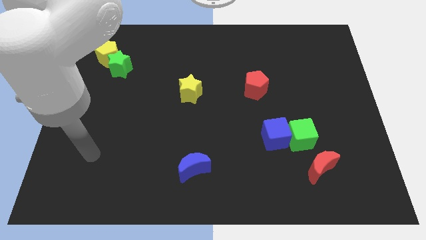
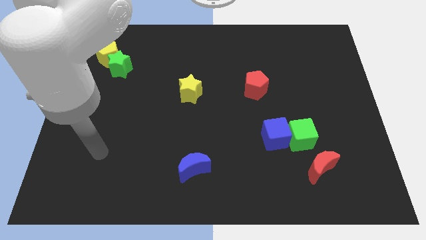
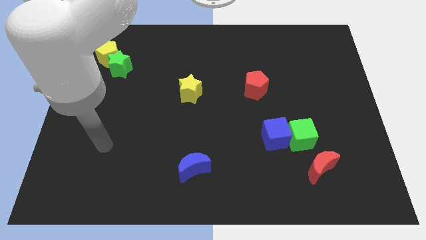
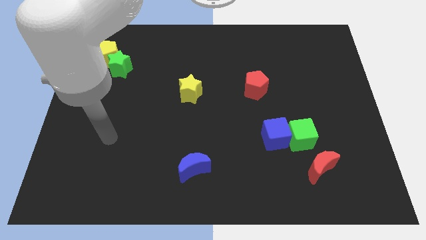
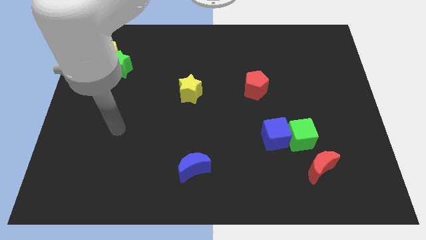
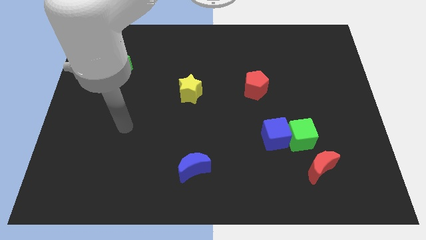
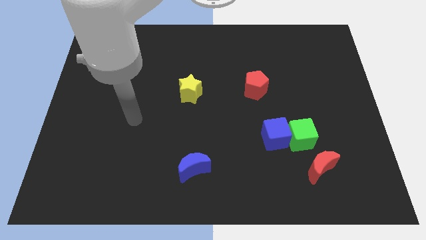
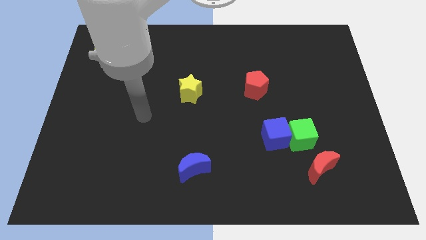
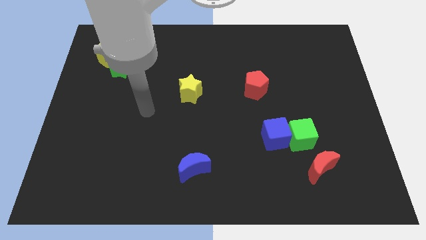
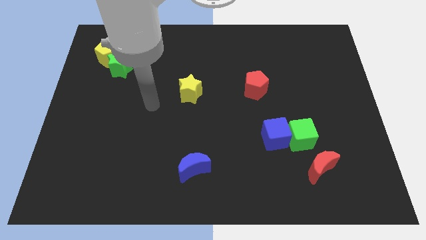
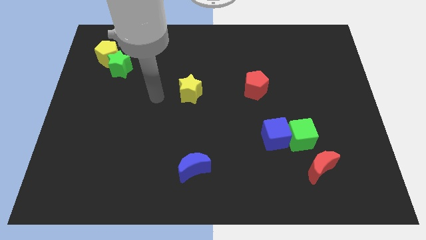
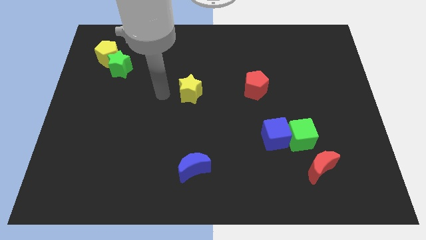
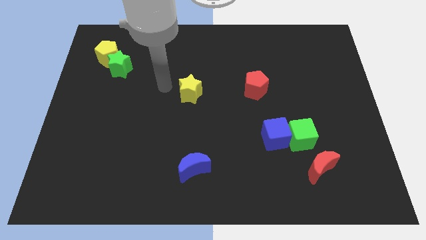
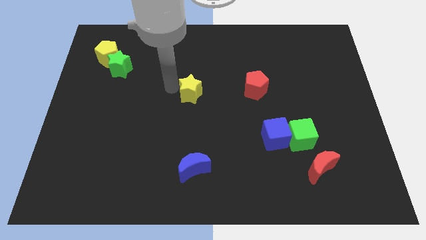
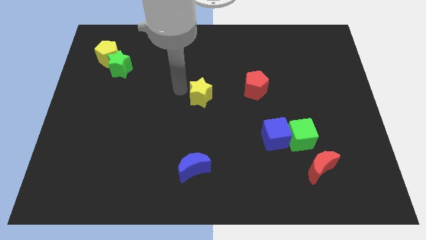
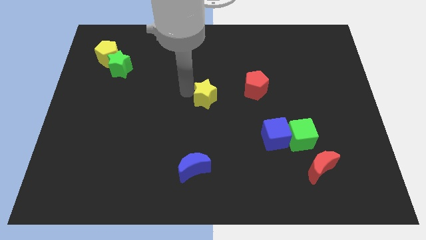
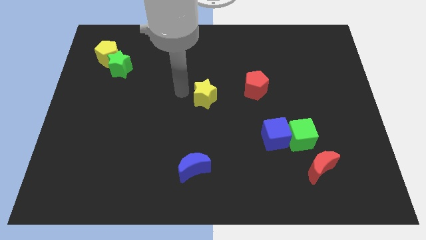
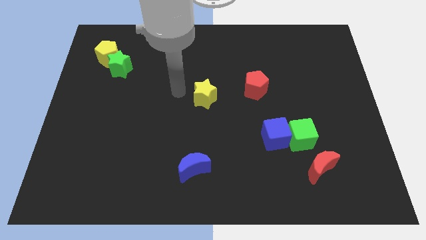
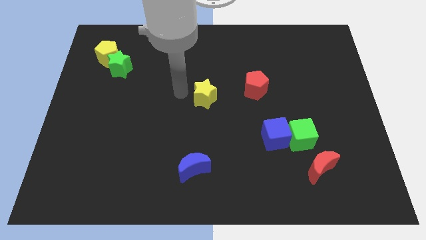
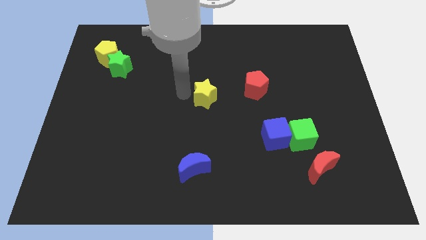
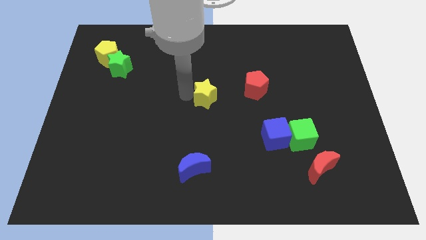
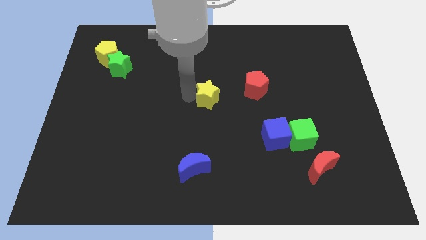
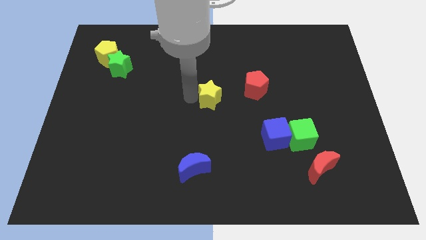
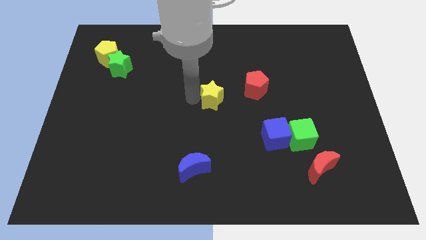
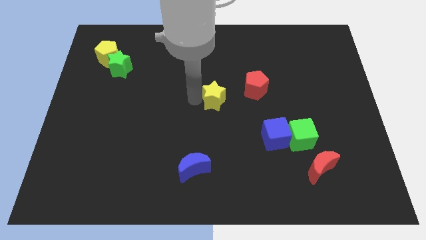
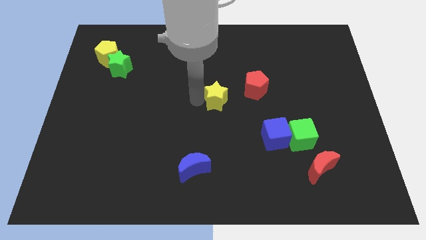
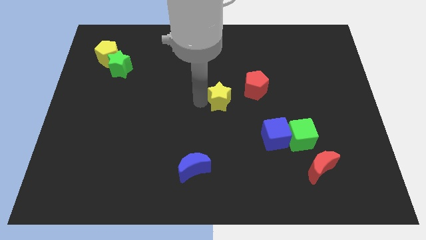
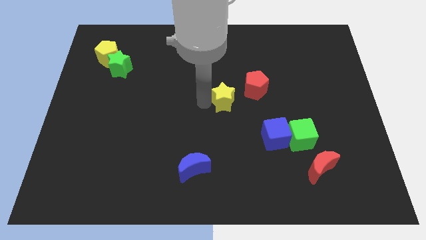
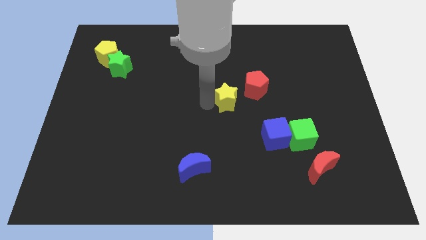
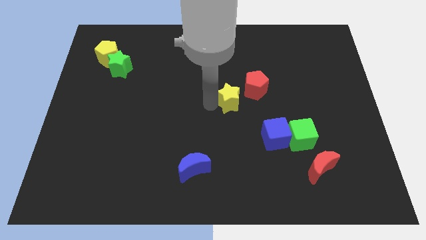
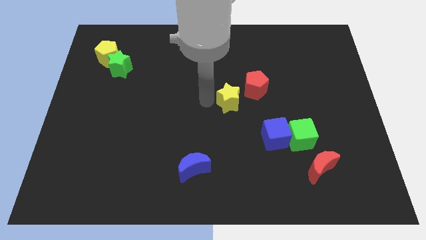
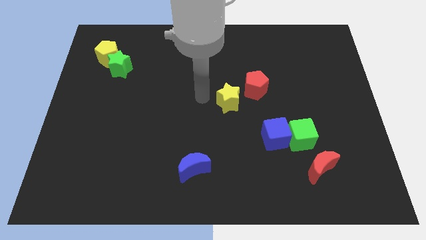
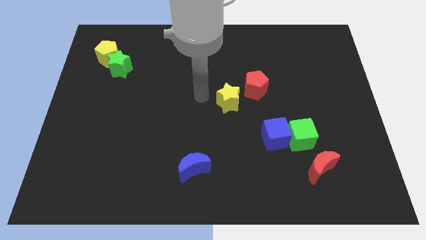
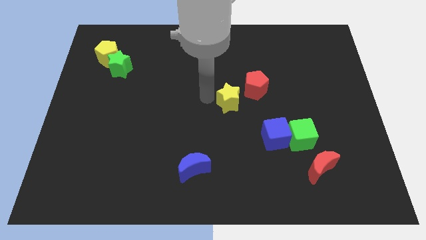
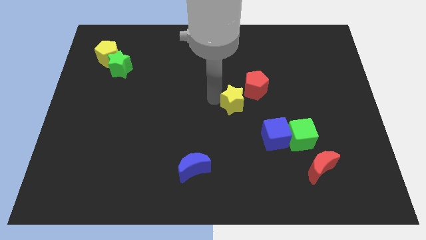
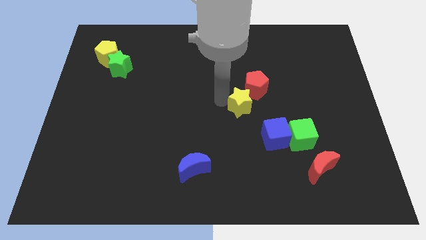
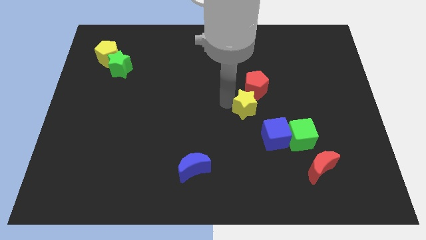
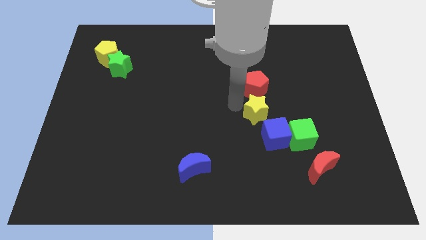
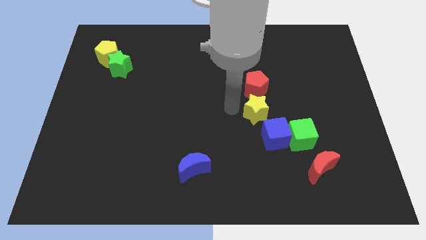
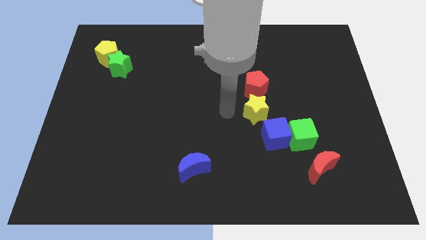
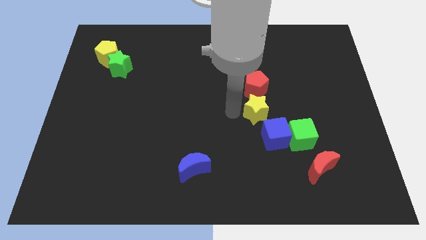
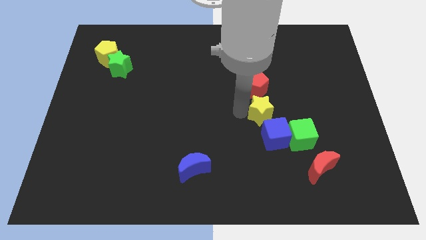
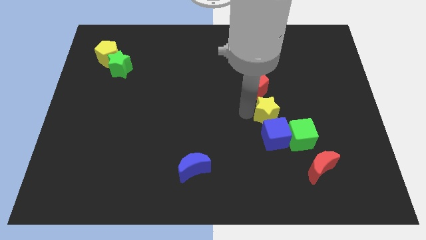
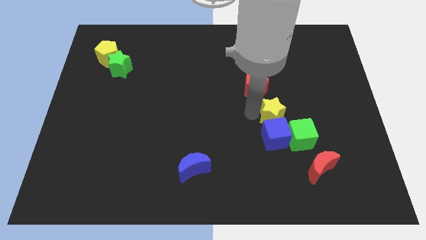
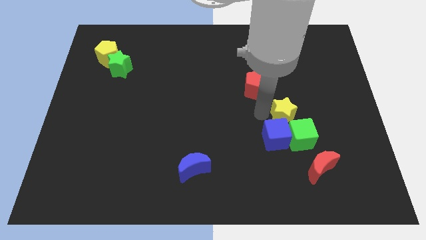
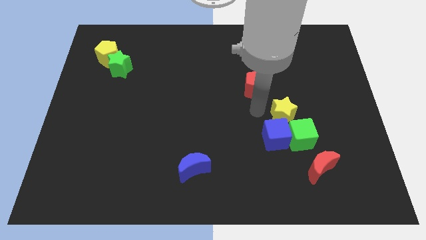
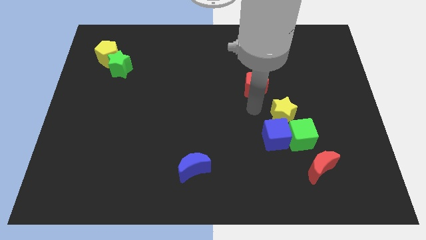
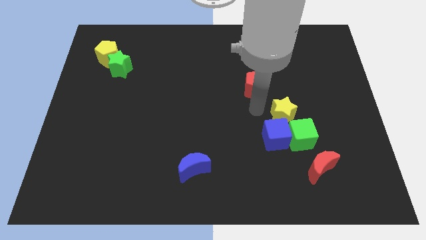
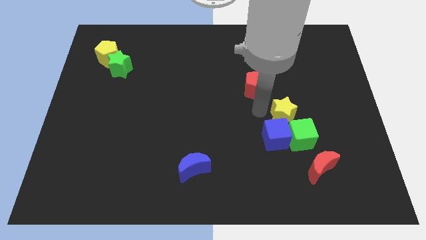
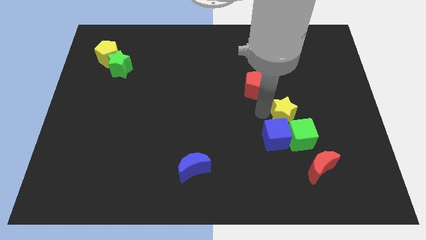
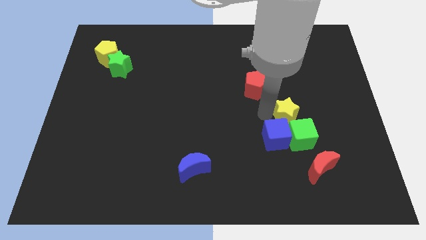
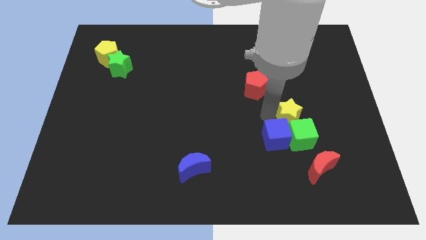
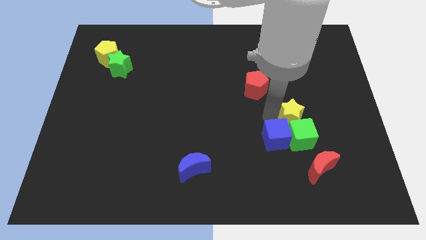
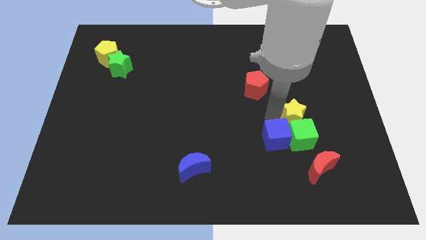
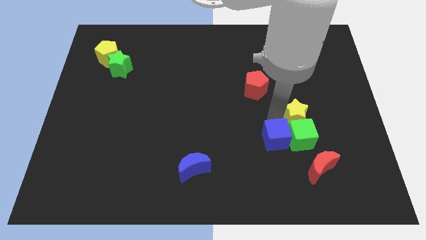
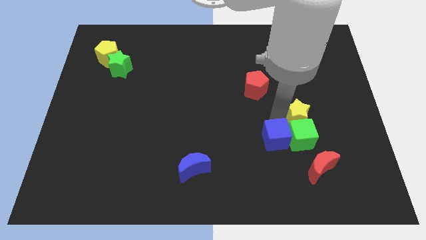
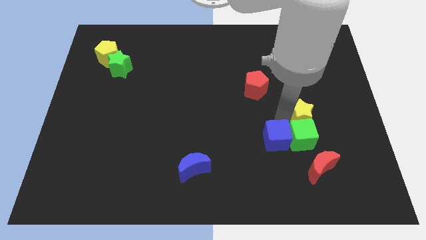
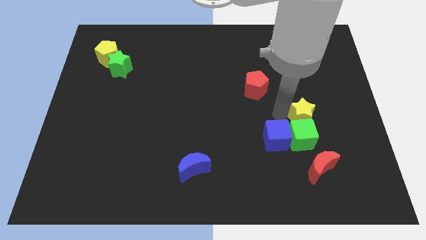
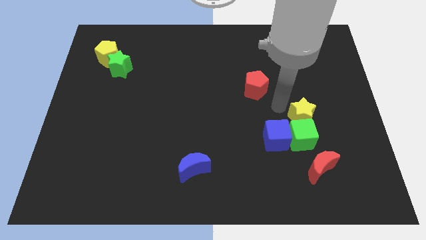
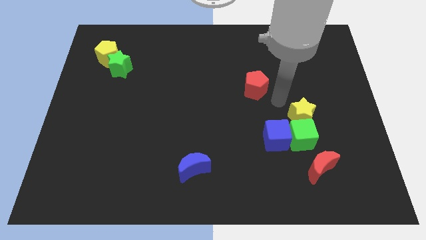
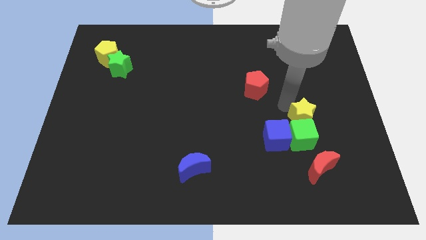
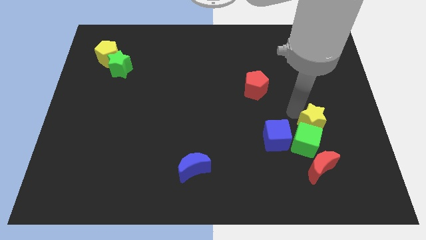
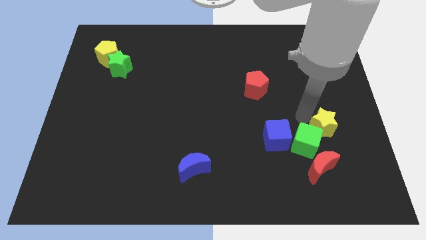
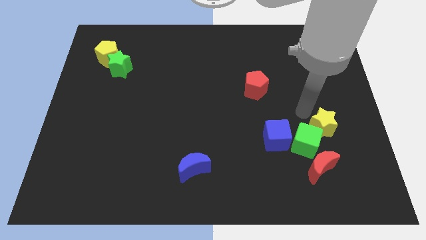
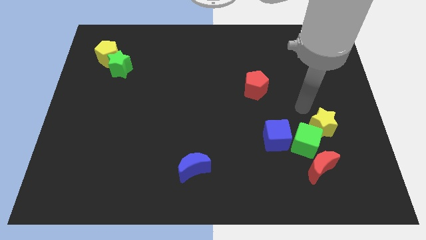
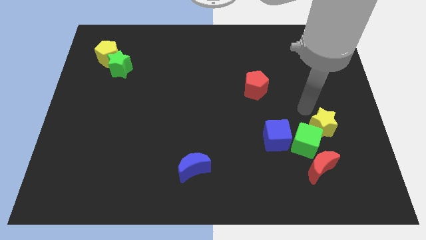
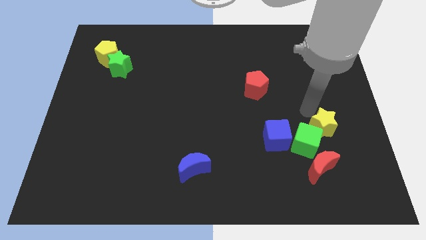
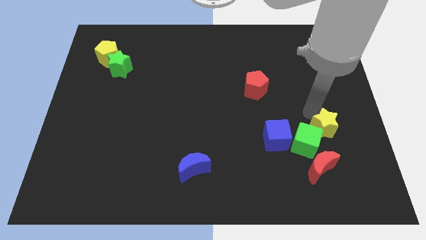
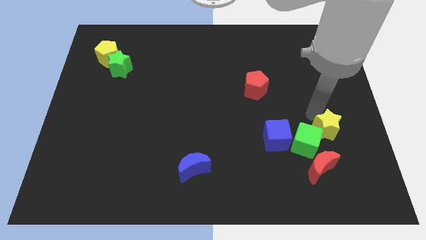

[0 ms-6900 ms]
move the yellow star diagonally up and to the right of the red moon
